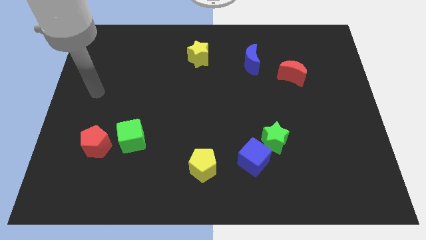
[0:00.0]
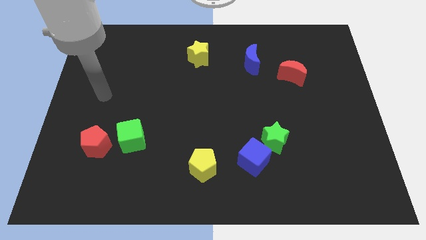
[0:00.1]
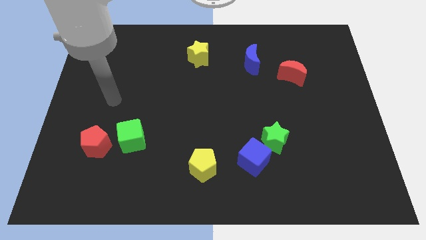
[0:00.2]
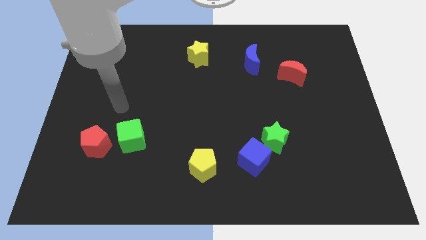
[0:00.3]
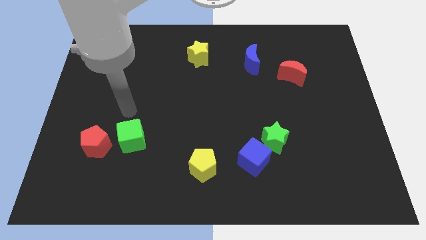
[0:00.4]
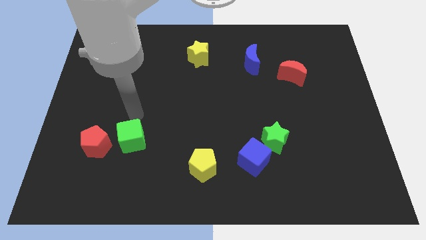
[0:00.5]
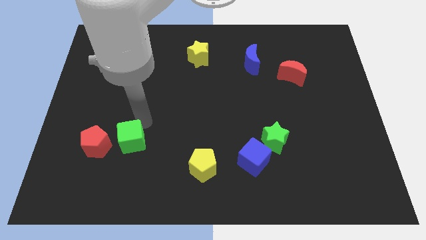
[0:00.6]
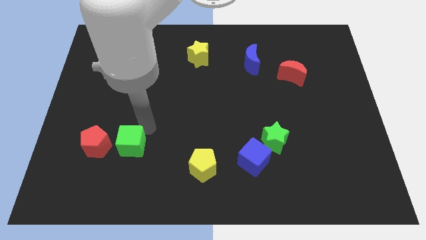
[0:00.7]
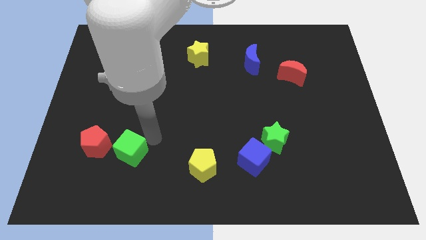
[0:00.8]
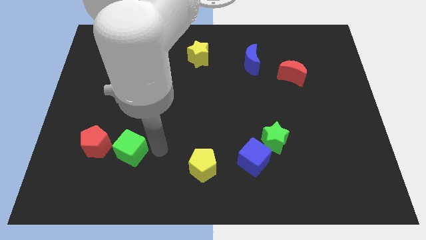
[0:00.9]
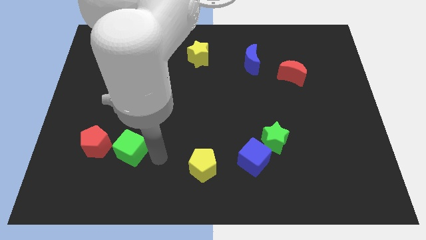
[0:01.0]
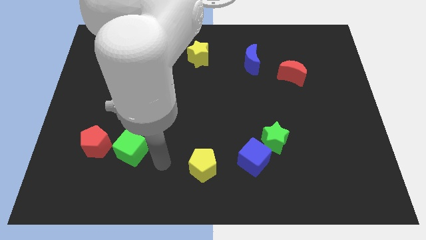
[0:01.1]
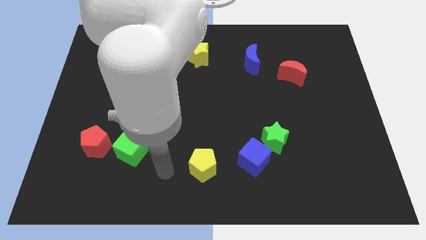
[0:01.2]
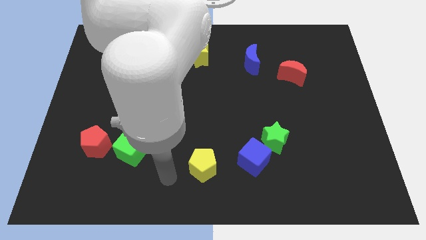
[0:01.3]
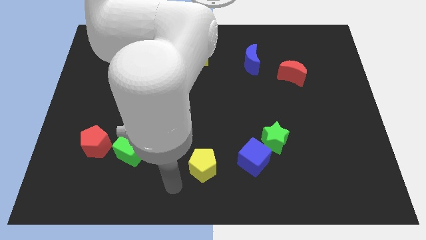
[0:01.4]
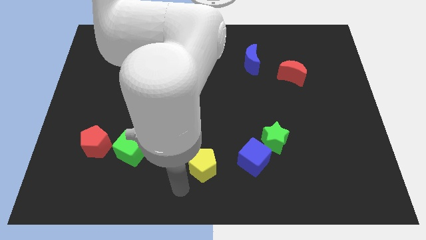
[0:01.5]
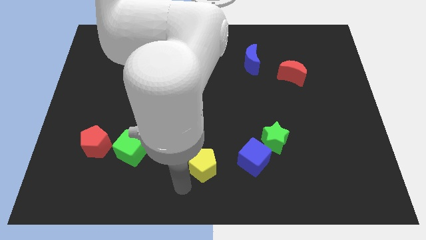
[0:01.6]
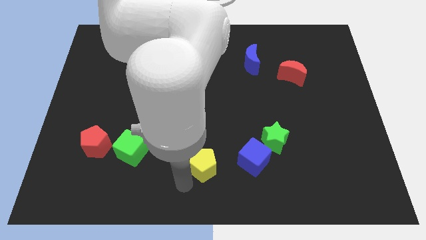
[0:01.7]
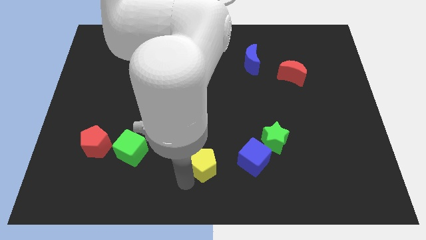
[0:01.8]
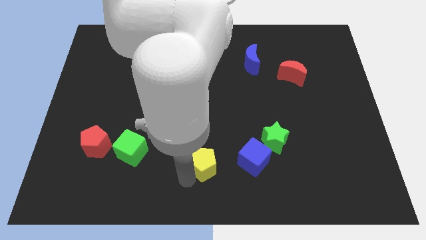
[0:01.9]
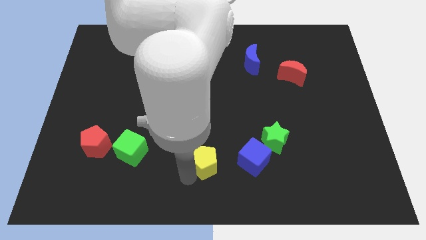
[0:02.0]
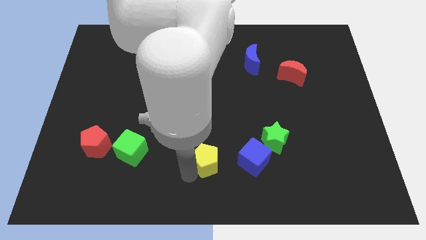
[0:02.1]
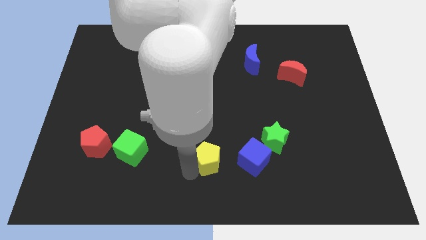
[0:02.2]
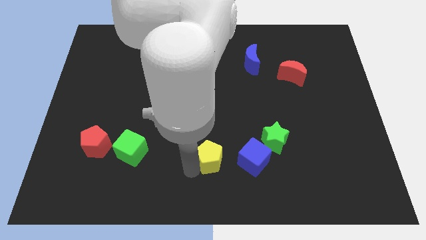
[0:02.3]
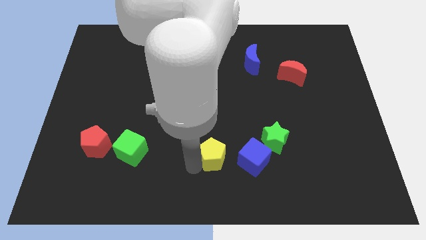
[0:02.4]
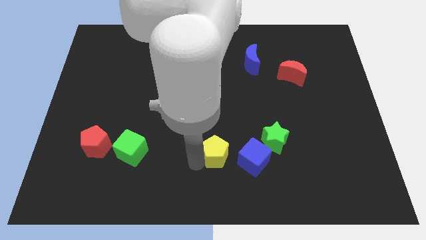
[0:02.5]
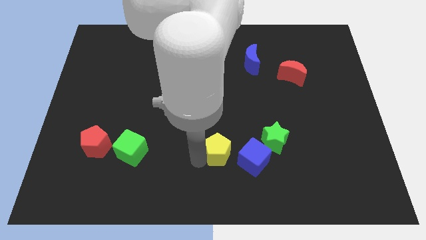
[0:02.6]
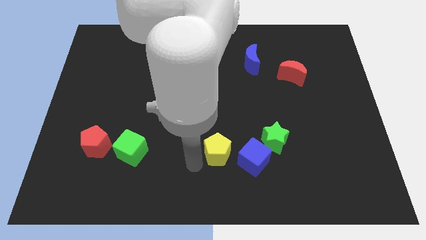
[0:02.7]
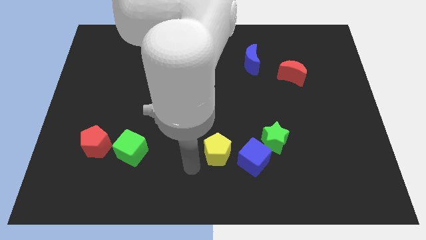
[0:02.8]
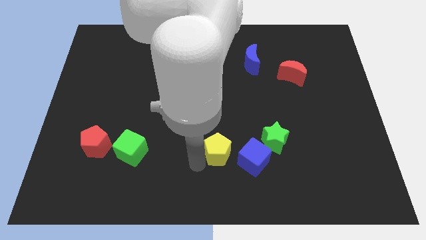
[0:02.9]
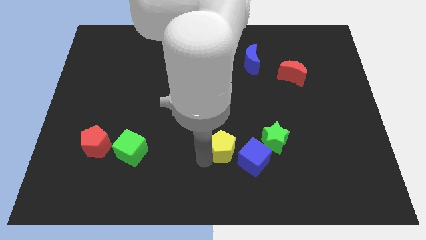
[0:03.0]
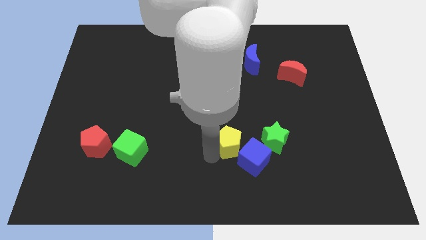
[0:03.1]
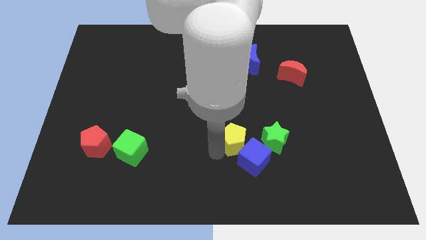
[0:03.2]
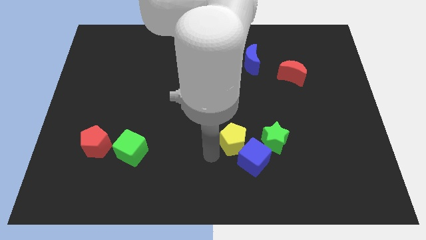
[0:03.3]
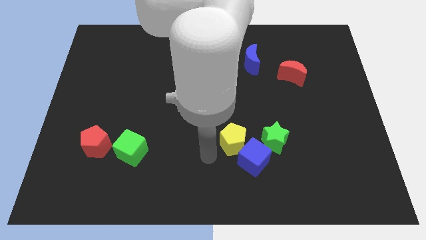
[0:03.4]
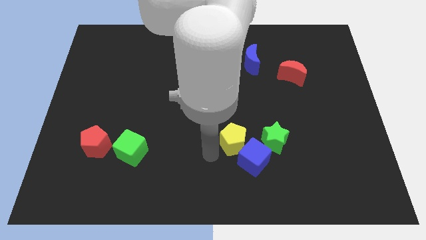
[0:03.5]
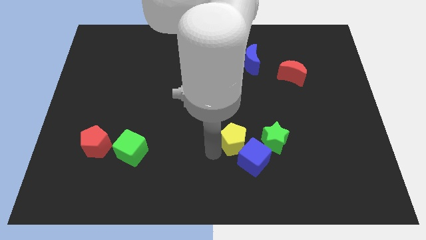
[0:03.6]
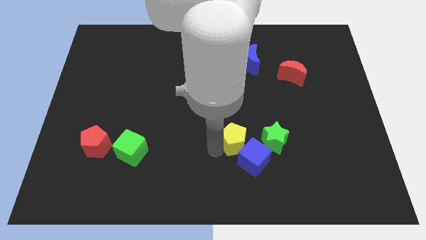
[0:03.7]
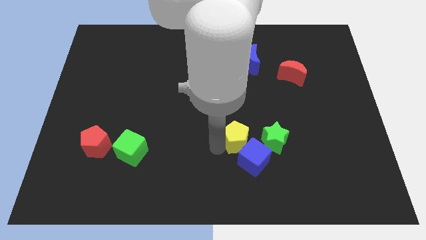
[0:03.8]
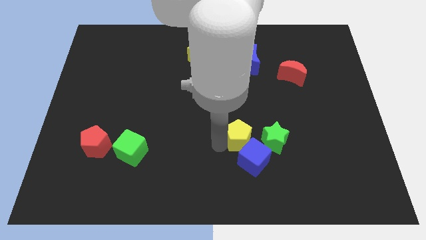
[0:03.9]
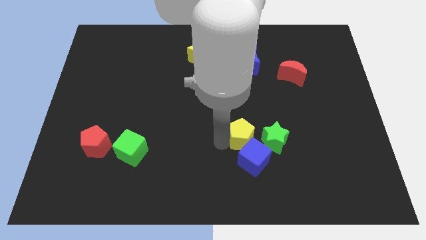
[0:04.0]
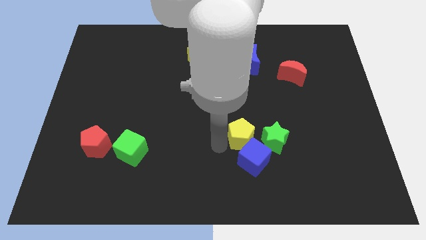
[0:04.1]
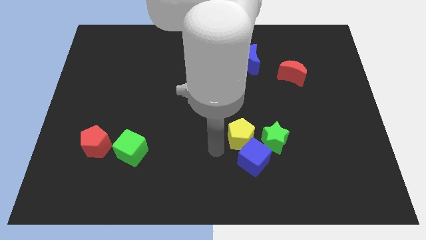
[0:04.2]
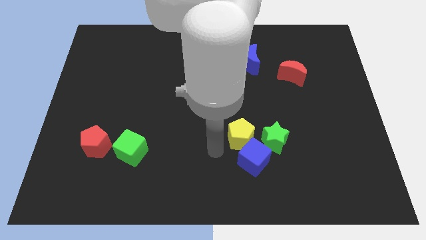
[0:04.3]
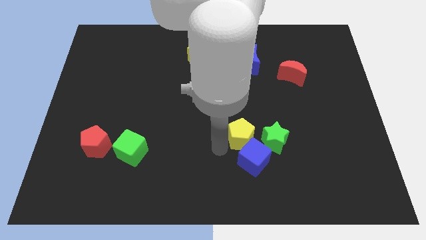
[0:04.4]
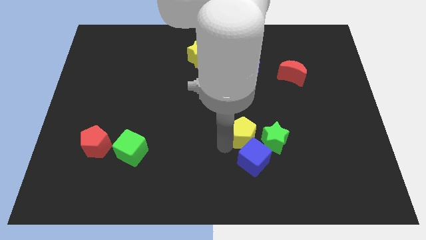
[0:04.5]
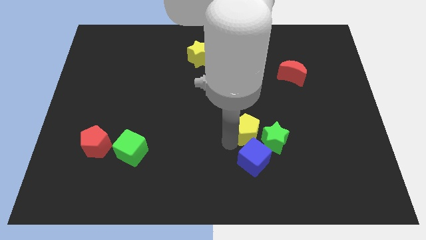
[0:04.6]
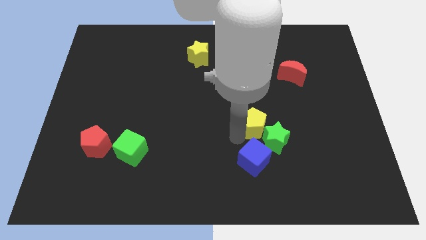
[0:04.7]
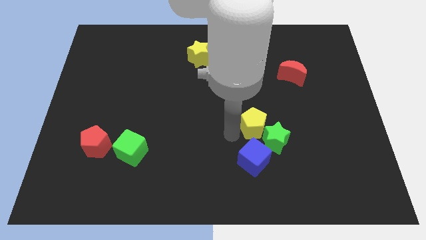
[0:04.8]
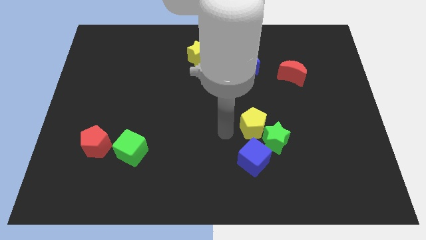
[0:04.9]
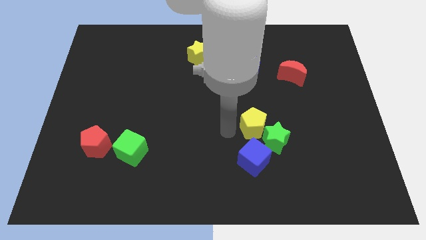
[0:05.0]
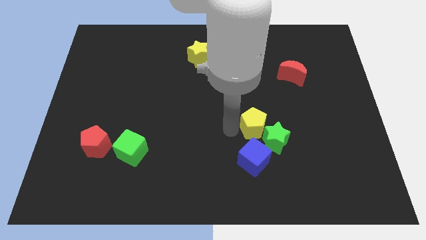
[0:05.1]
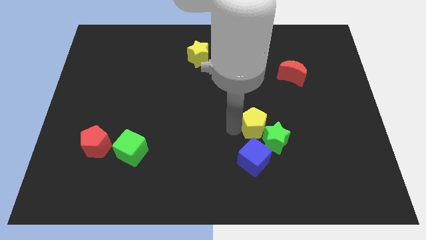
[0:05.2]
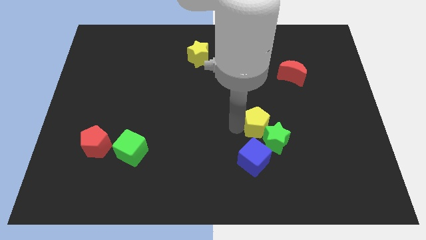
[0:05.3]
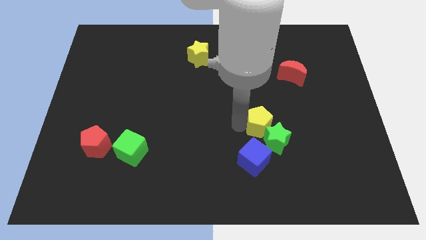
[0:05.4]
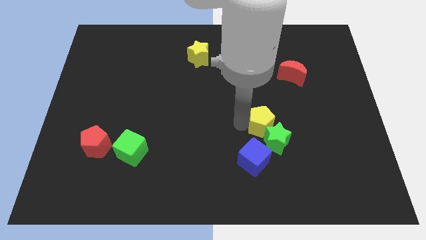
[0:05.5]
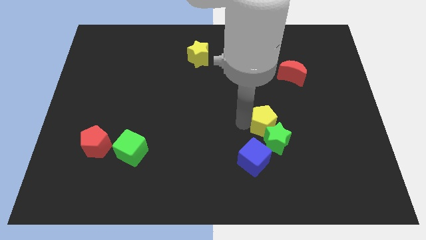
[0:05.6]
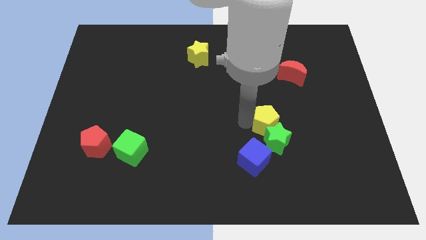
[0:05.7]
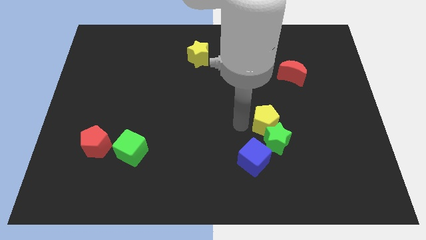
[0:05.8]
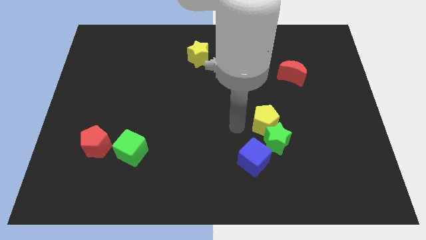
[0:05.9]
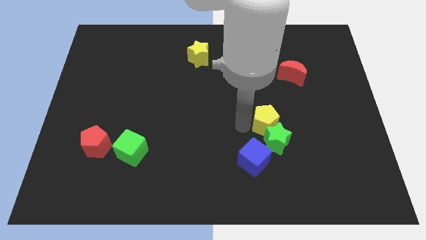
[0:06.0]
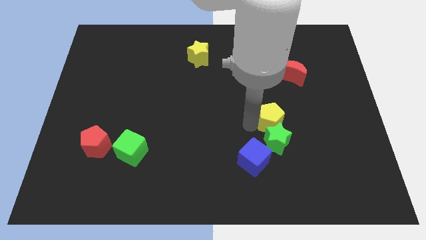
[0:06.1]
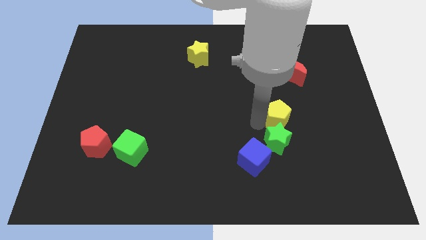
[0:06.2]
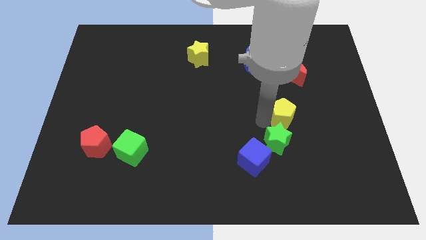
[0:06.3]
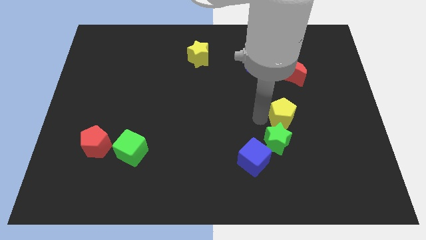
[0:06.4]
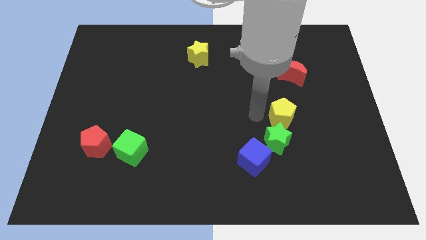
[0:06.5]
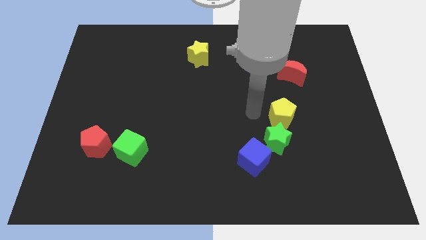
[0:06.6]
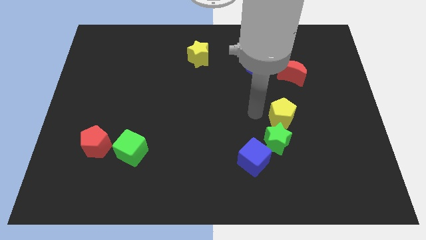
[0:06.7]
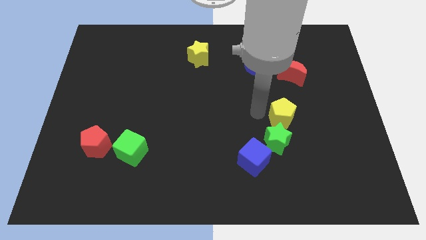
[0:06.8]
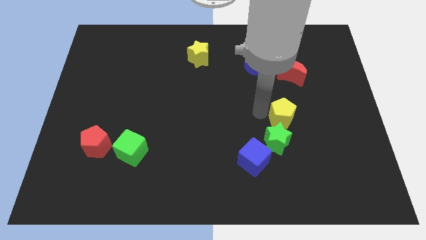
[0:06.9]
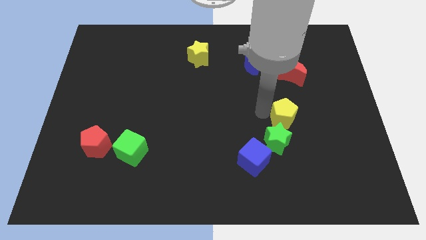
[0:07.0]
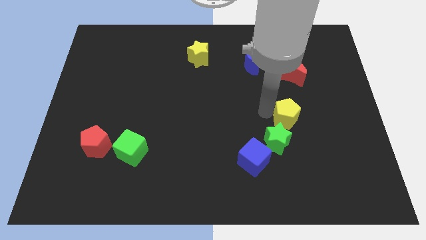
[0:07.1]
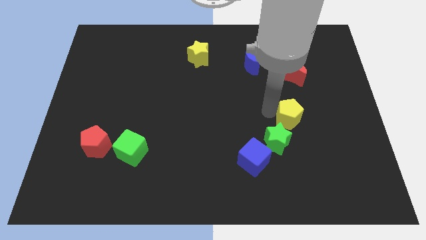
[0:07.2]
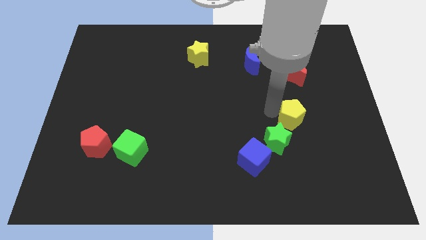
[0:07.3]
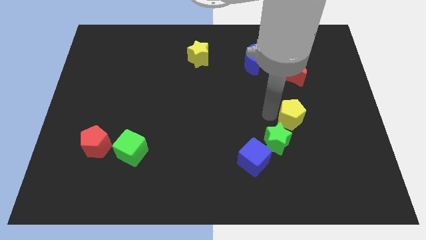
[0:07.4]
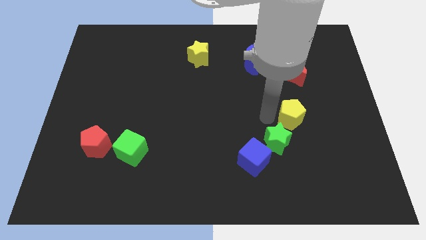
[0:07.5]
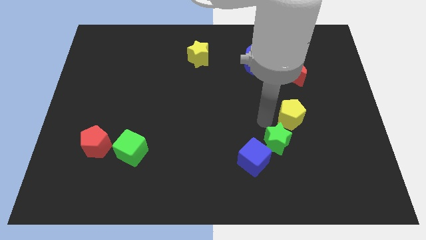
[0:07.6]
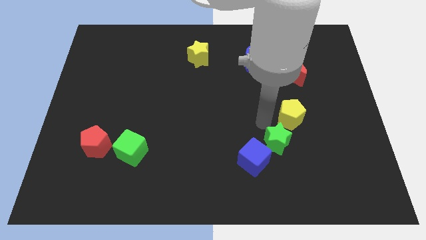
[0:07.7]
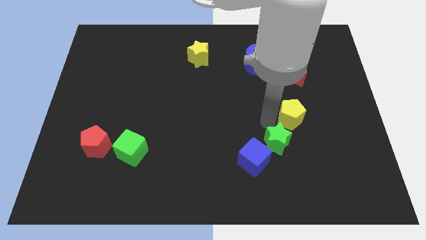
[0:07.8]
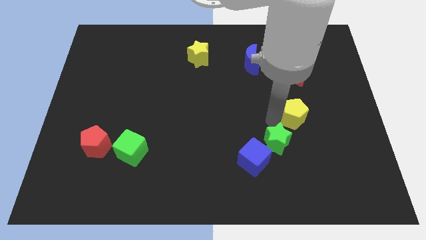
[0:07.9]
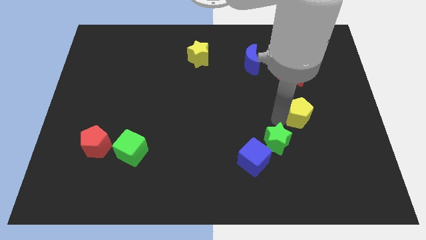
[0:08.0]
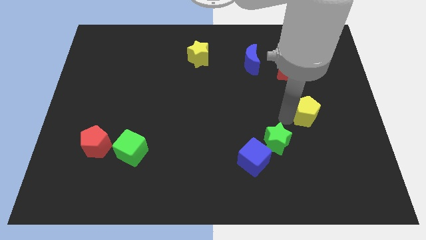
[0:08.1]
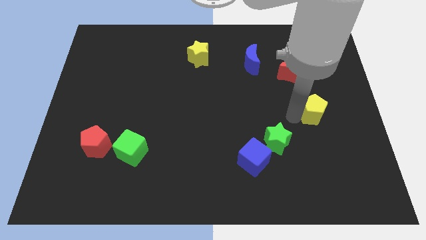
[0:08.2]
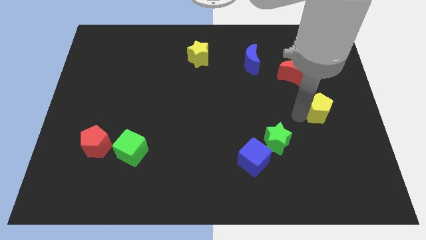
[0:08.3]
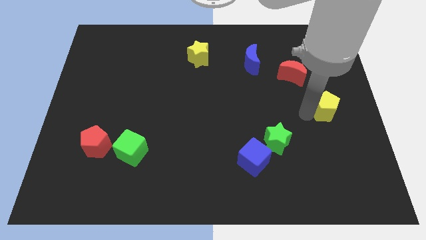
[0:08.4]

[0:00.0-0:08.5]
slide the yellow pentagon to the right side
